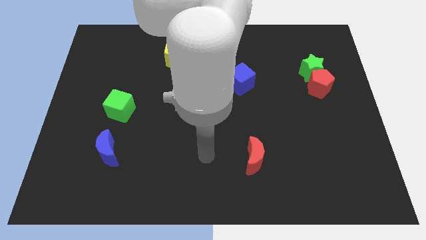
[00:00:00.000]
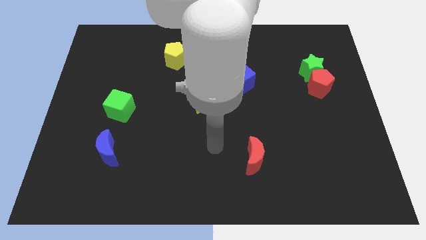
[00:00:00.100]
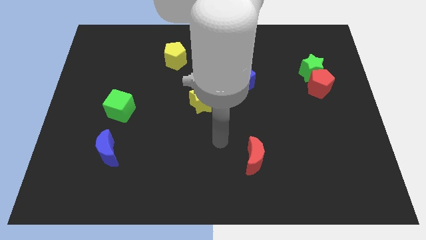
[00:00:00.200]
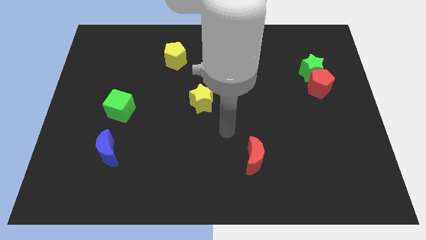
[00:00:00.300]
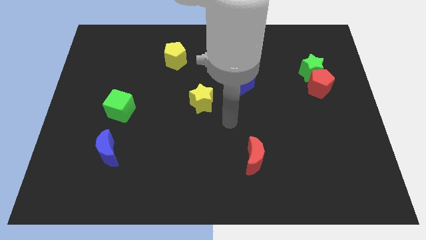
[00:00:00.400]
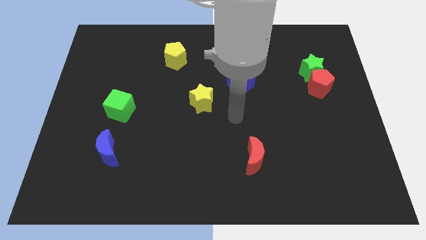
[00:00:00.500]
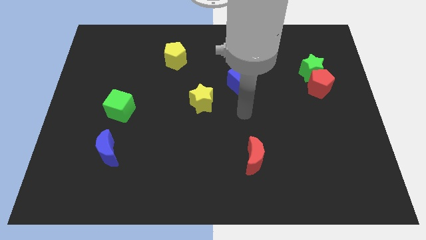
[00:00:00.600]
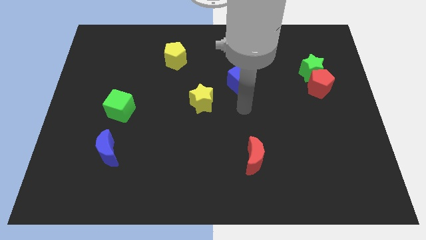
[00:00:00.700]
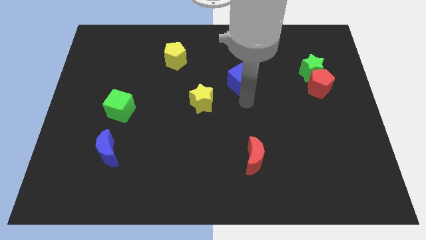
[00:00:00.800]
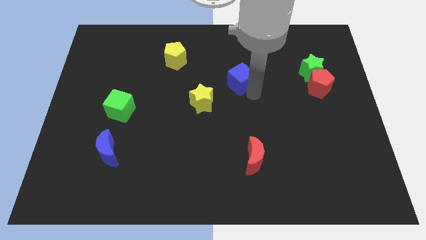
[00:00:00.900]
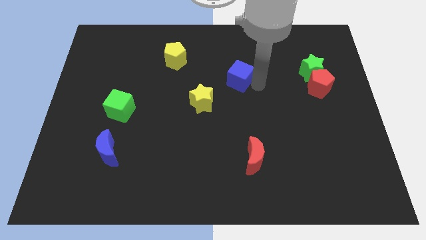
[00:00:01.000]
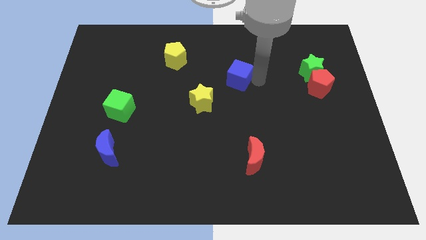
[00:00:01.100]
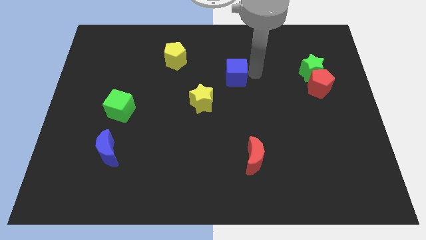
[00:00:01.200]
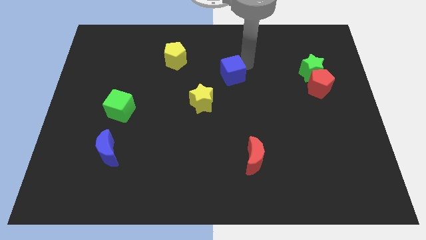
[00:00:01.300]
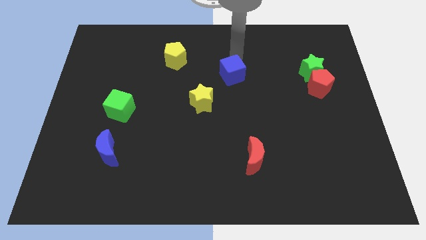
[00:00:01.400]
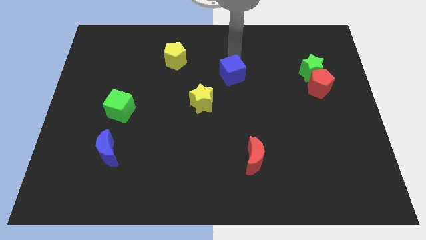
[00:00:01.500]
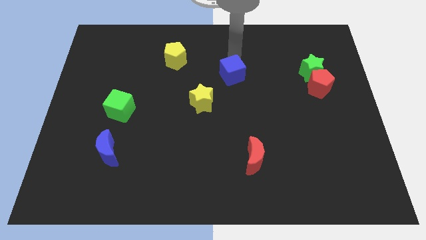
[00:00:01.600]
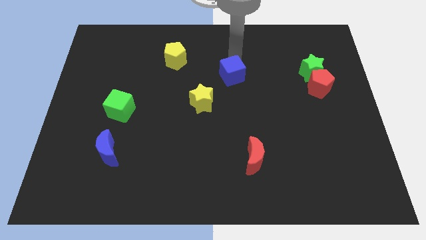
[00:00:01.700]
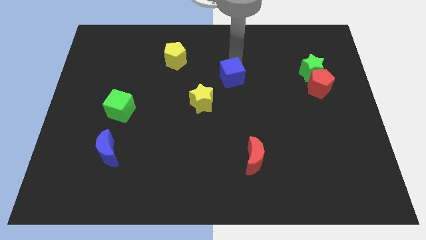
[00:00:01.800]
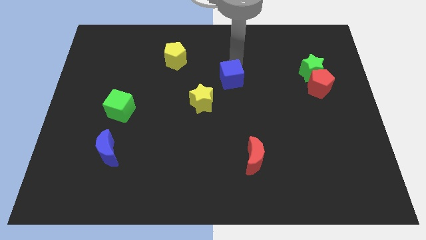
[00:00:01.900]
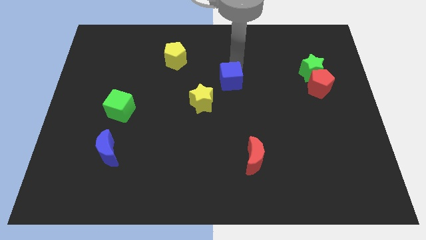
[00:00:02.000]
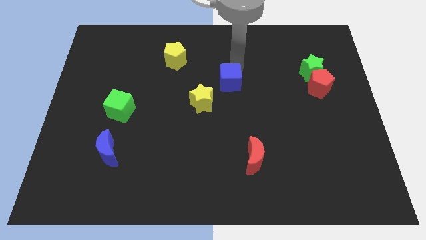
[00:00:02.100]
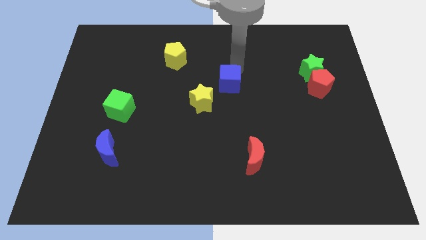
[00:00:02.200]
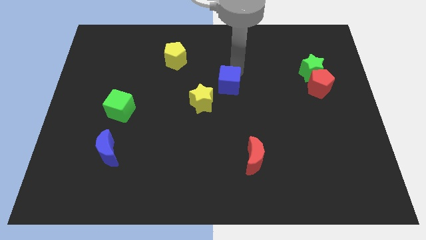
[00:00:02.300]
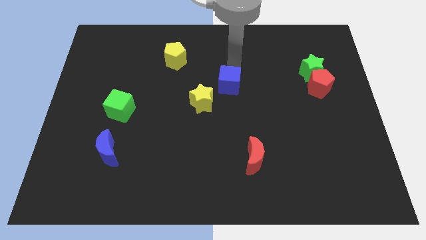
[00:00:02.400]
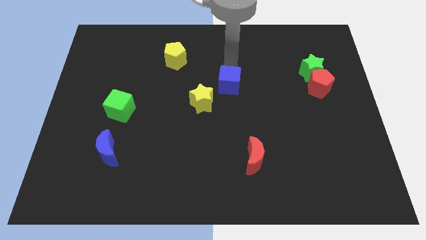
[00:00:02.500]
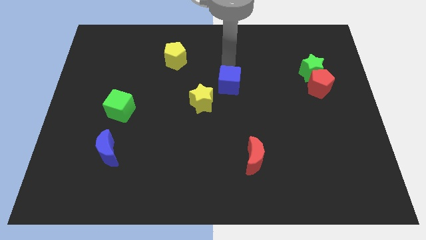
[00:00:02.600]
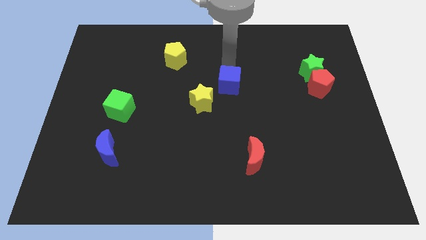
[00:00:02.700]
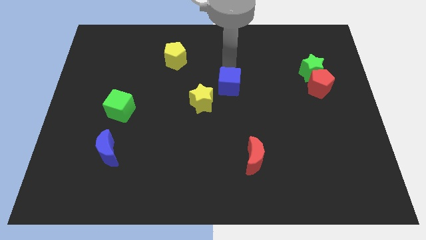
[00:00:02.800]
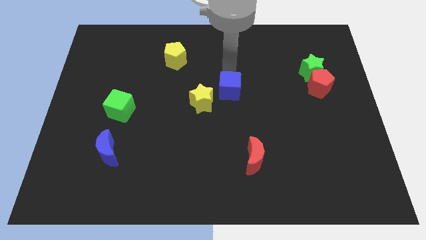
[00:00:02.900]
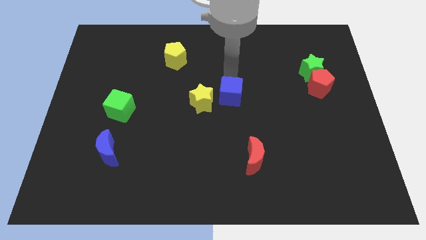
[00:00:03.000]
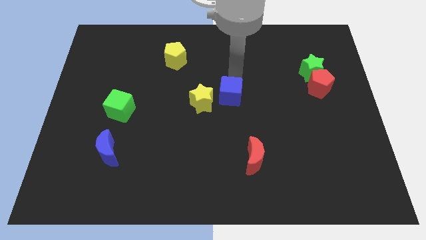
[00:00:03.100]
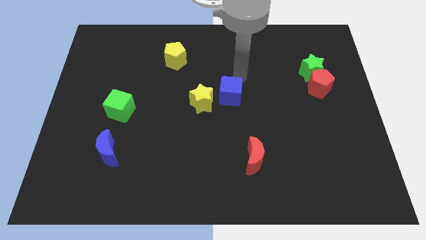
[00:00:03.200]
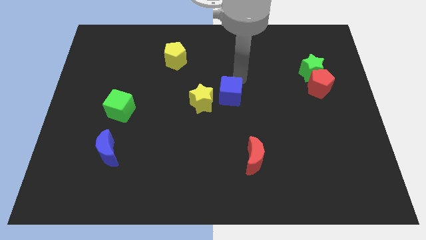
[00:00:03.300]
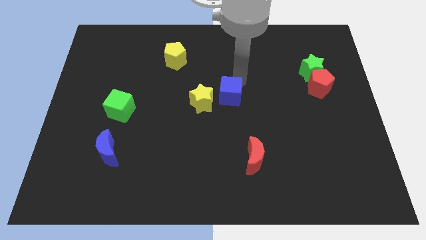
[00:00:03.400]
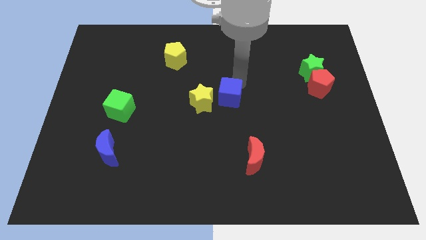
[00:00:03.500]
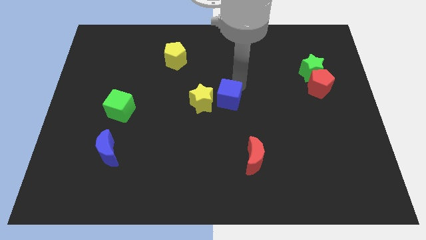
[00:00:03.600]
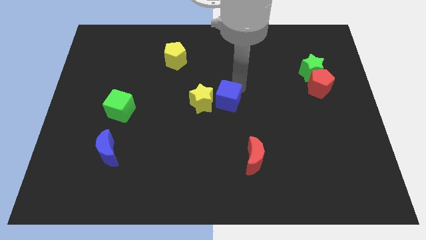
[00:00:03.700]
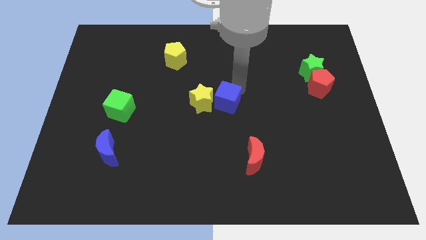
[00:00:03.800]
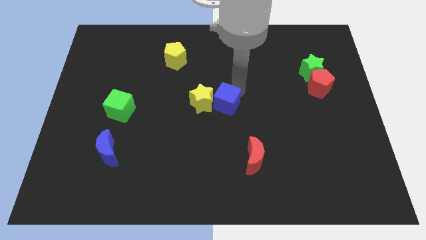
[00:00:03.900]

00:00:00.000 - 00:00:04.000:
move the blue cube a bit down and to the left diagonally

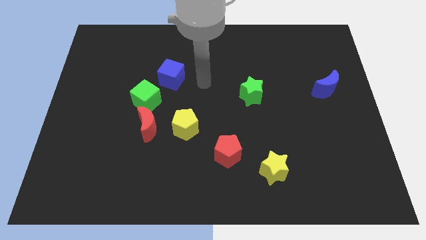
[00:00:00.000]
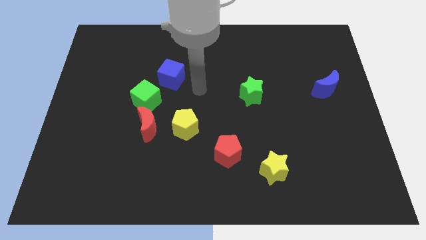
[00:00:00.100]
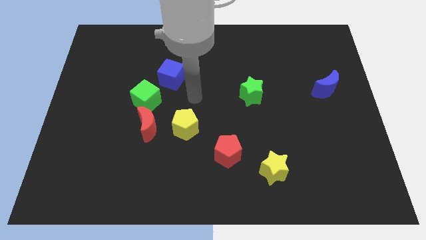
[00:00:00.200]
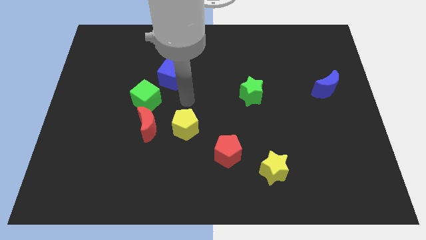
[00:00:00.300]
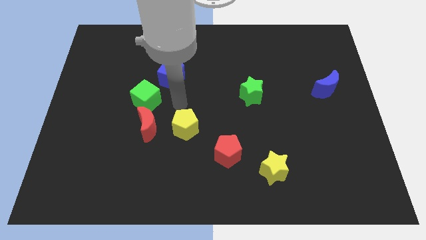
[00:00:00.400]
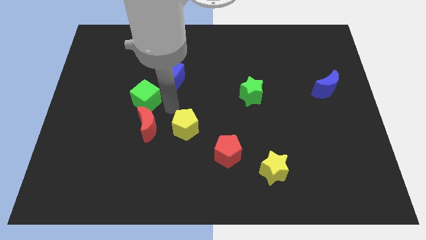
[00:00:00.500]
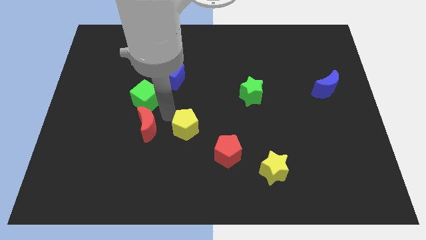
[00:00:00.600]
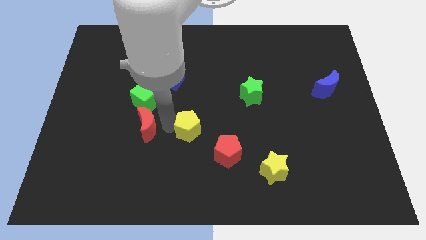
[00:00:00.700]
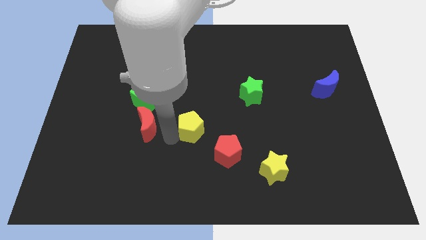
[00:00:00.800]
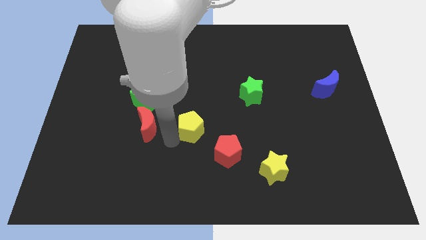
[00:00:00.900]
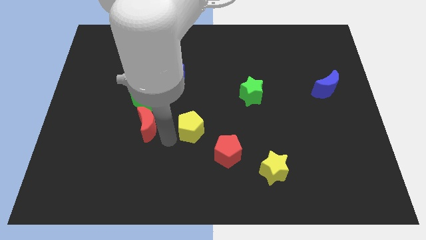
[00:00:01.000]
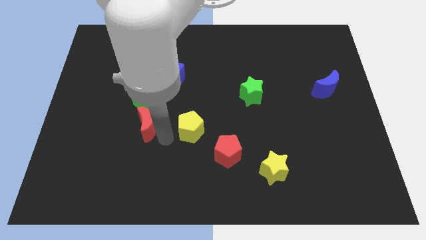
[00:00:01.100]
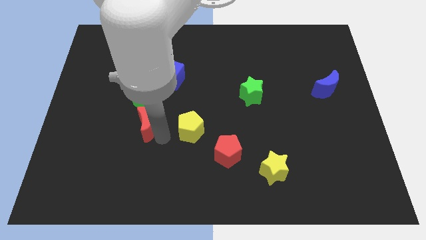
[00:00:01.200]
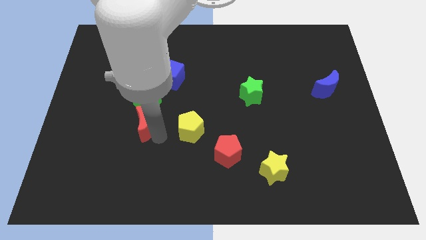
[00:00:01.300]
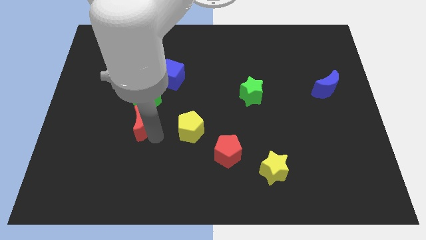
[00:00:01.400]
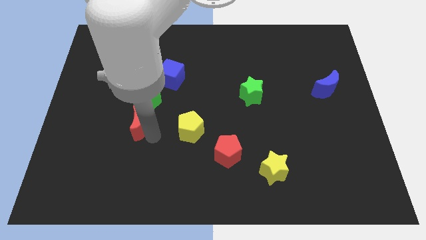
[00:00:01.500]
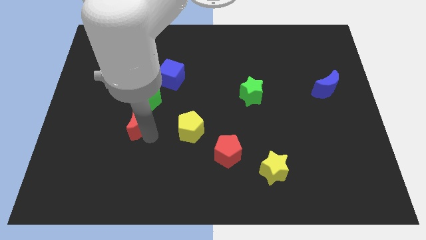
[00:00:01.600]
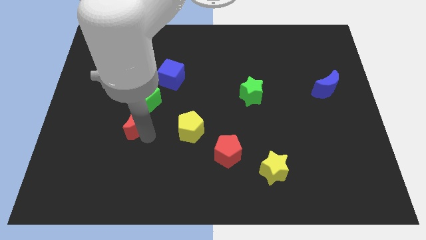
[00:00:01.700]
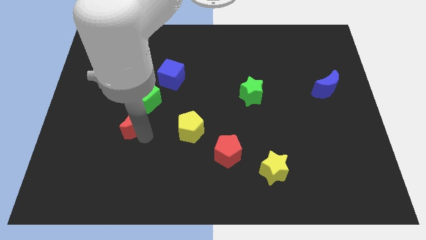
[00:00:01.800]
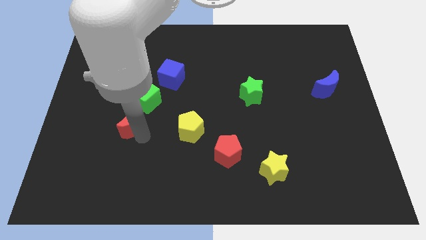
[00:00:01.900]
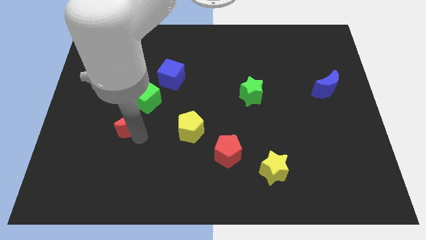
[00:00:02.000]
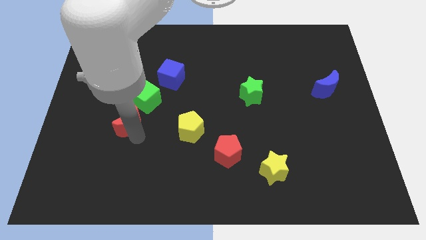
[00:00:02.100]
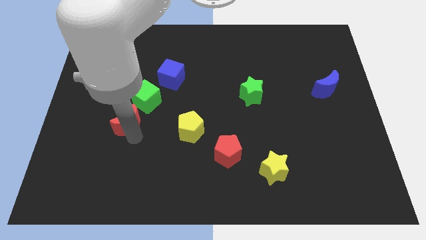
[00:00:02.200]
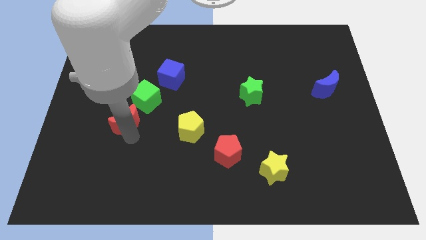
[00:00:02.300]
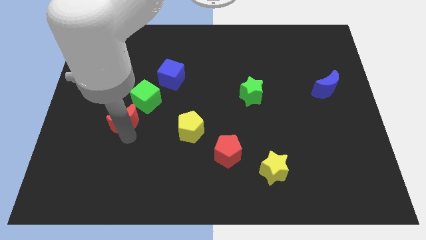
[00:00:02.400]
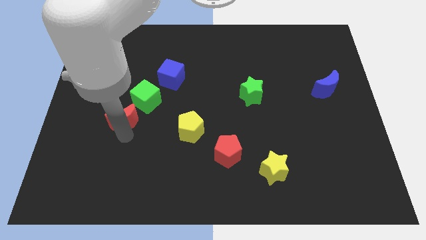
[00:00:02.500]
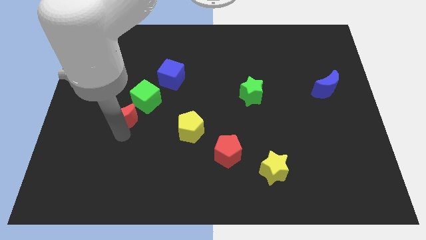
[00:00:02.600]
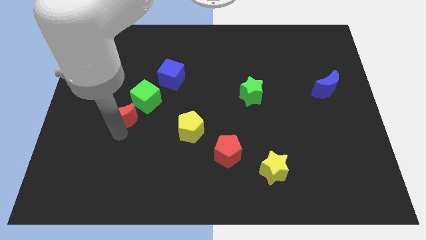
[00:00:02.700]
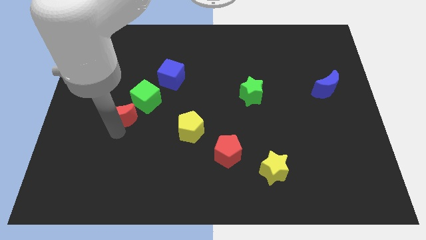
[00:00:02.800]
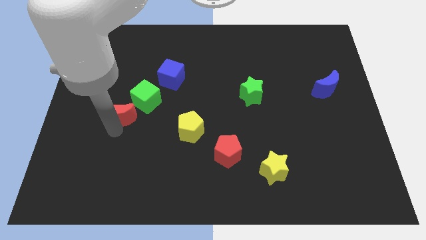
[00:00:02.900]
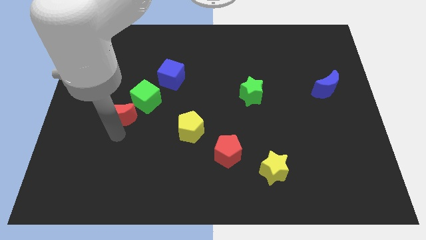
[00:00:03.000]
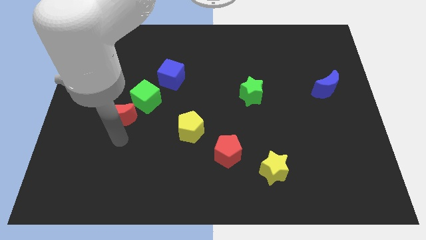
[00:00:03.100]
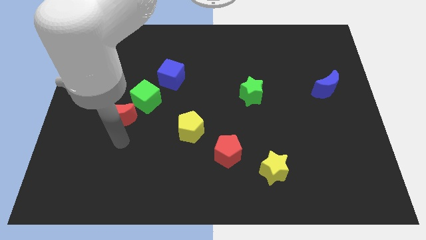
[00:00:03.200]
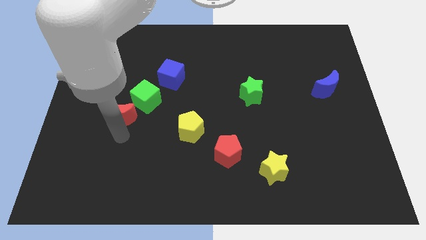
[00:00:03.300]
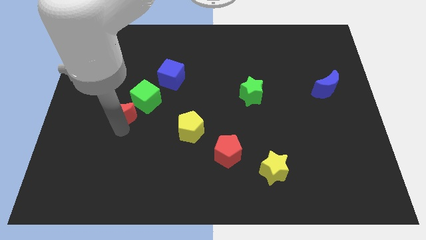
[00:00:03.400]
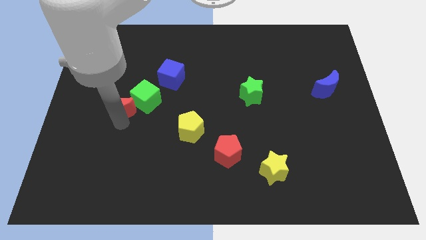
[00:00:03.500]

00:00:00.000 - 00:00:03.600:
slide the red moon up and left diagonally a little
